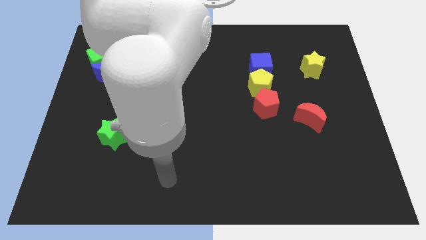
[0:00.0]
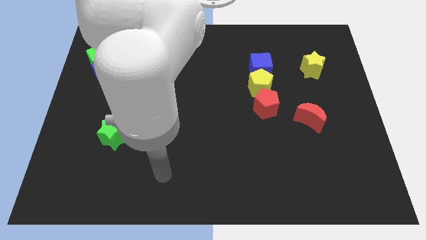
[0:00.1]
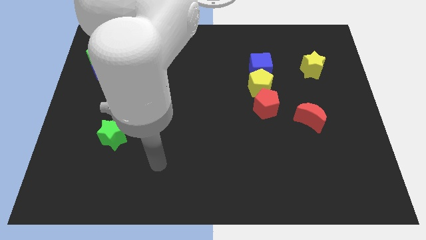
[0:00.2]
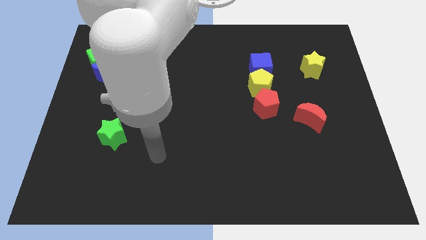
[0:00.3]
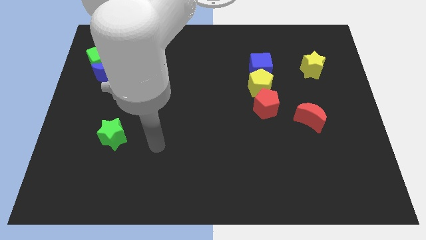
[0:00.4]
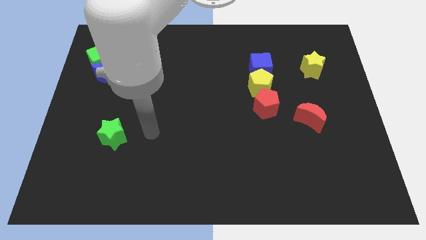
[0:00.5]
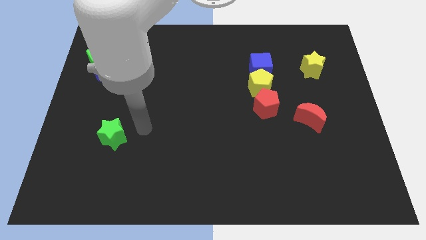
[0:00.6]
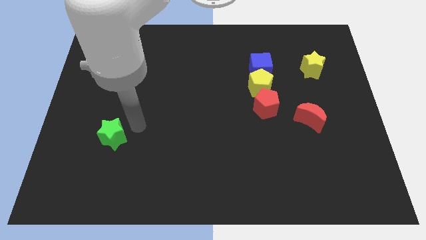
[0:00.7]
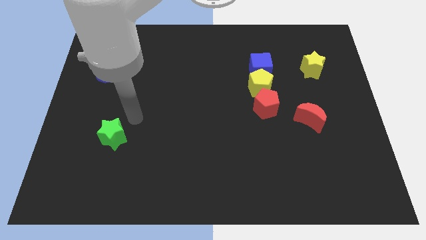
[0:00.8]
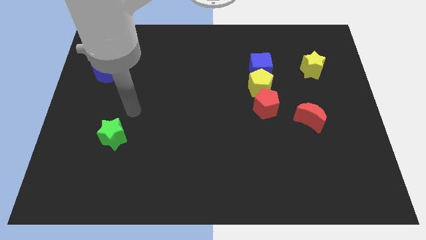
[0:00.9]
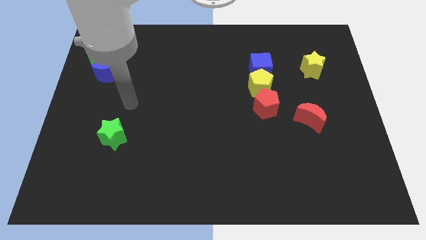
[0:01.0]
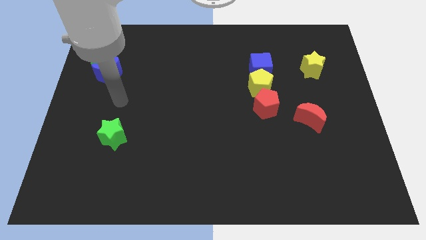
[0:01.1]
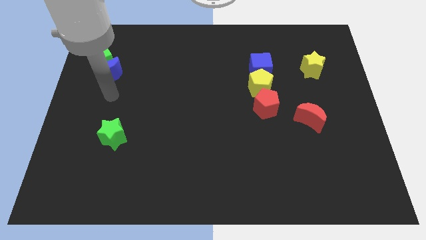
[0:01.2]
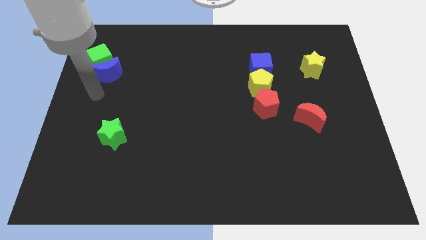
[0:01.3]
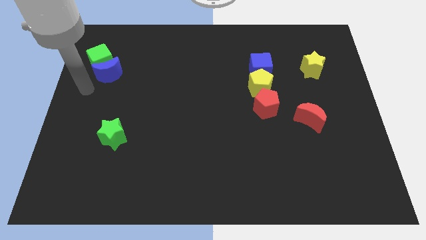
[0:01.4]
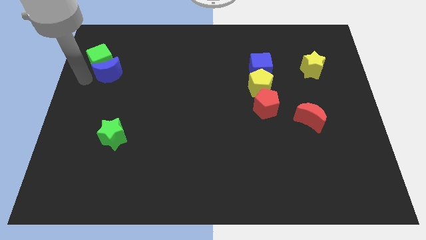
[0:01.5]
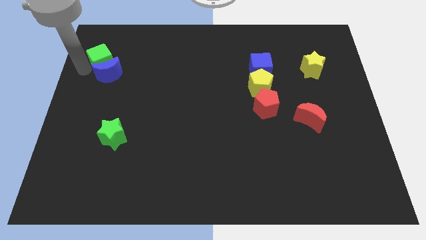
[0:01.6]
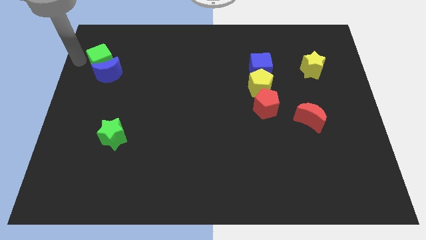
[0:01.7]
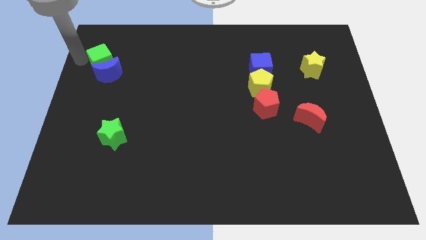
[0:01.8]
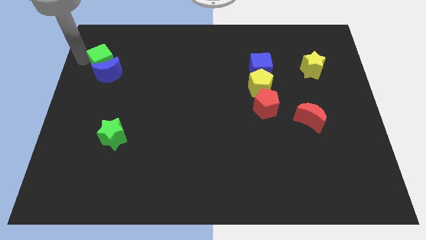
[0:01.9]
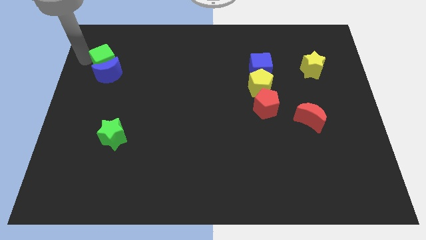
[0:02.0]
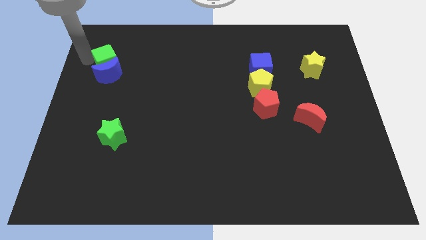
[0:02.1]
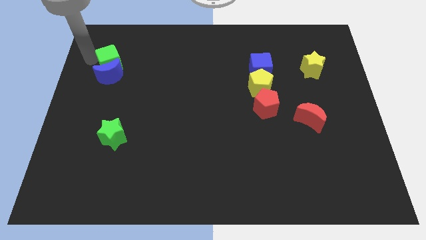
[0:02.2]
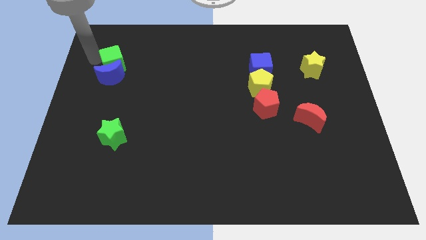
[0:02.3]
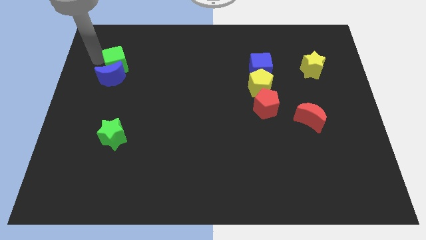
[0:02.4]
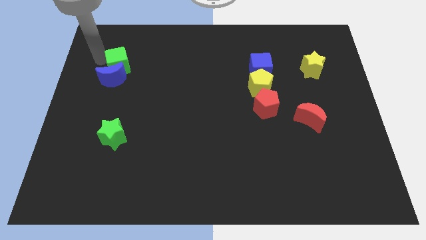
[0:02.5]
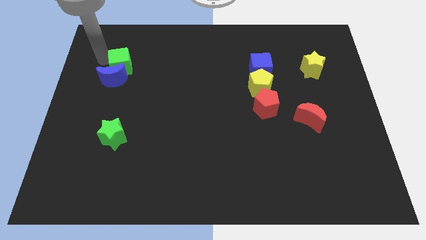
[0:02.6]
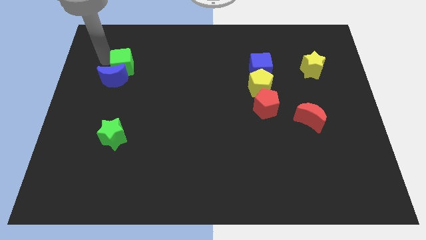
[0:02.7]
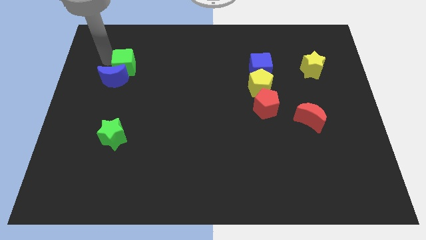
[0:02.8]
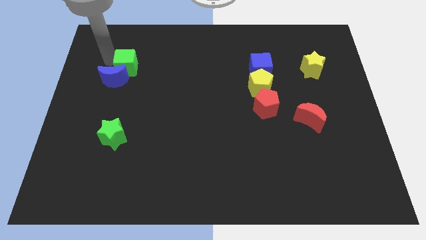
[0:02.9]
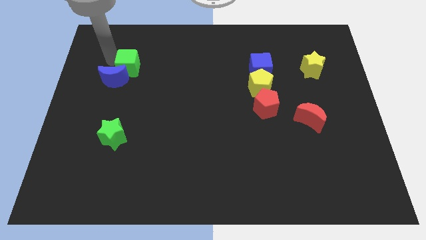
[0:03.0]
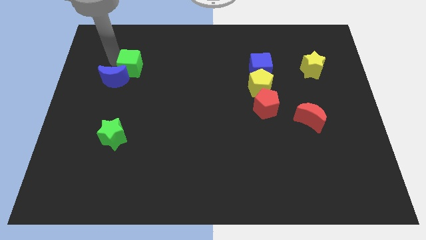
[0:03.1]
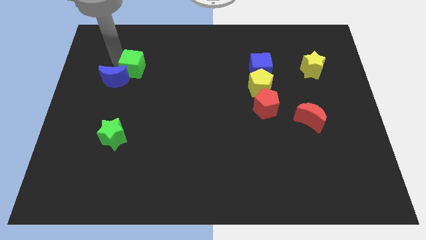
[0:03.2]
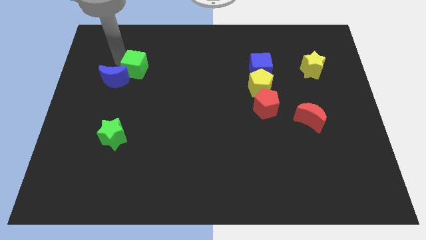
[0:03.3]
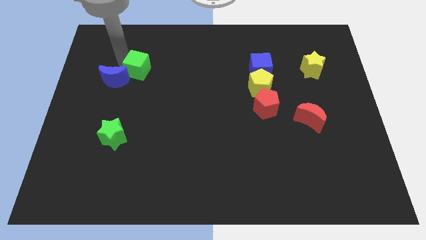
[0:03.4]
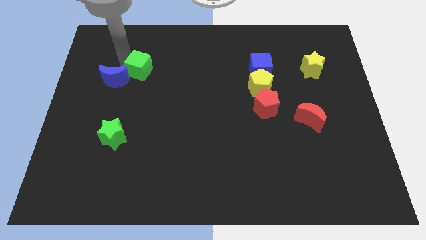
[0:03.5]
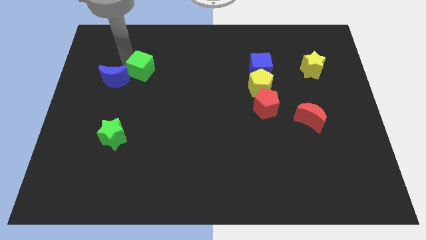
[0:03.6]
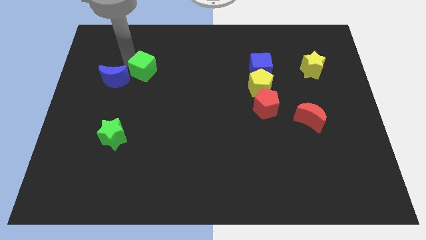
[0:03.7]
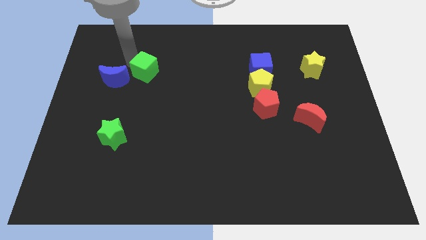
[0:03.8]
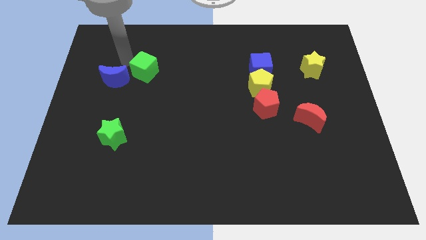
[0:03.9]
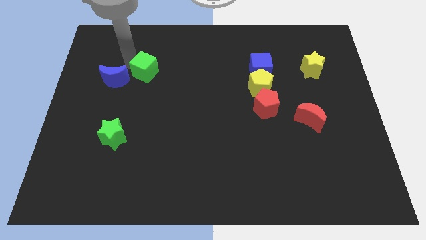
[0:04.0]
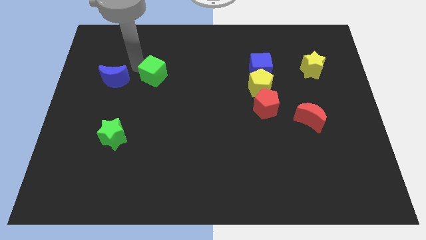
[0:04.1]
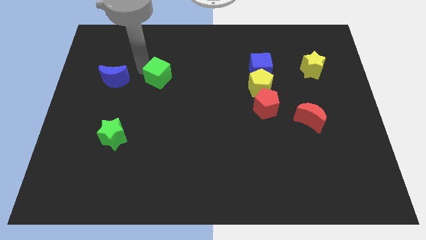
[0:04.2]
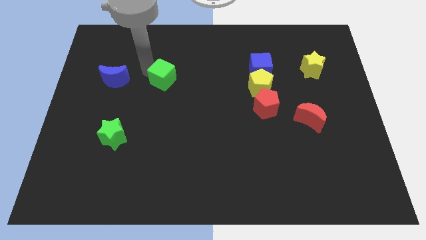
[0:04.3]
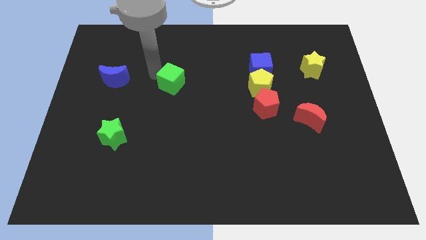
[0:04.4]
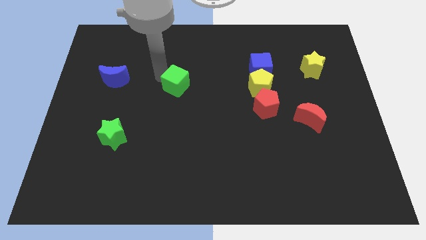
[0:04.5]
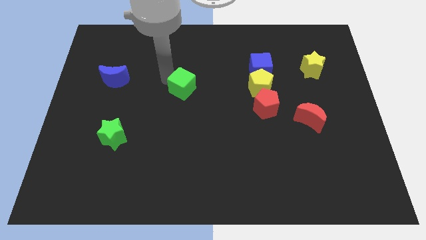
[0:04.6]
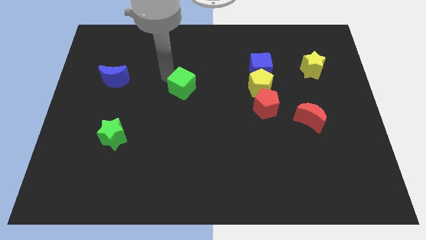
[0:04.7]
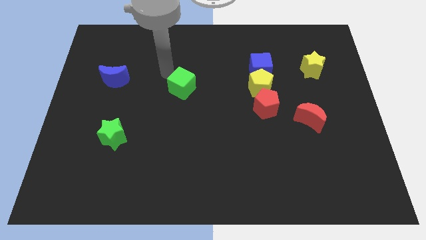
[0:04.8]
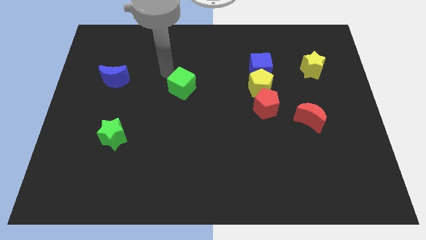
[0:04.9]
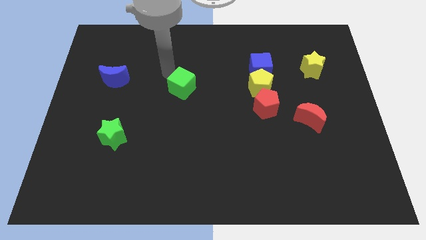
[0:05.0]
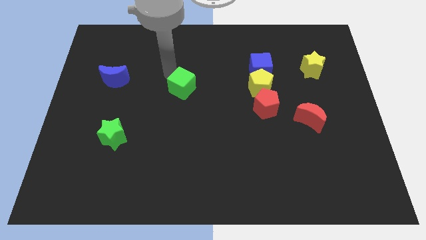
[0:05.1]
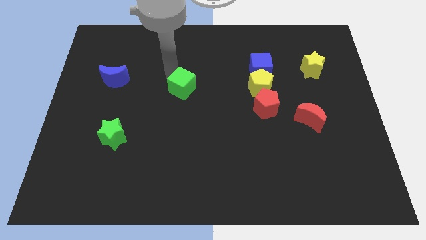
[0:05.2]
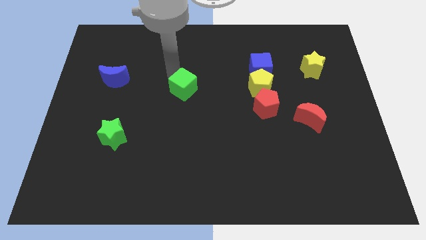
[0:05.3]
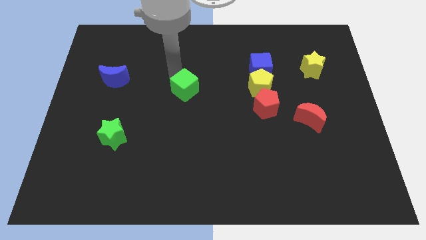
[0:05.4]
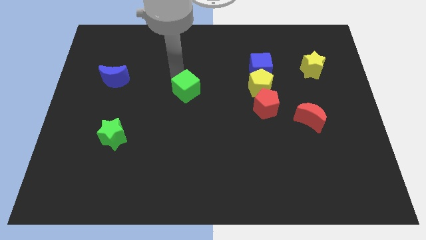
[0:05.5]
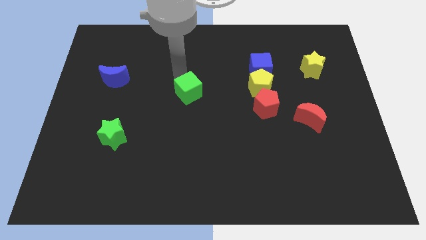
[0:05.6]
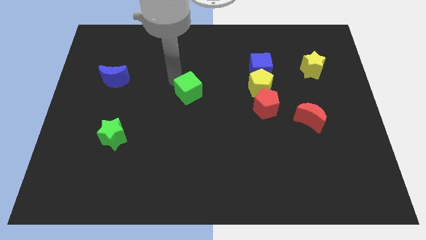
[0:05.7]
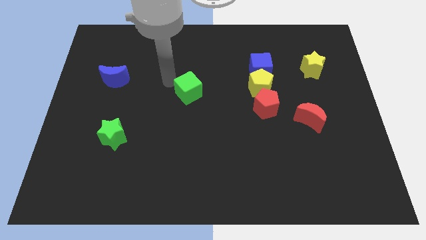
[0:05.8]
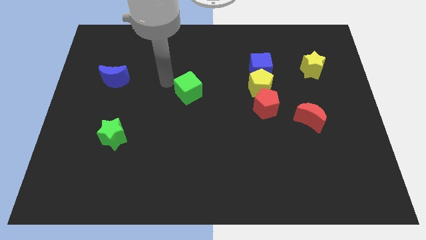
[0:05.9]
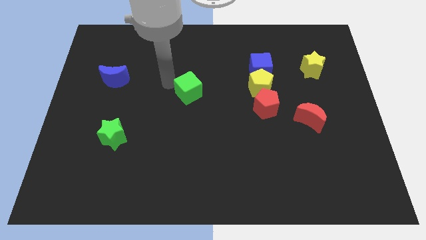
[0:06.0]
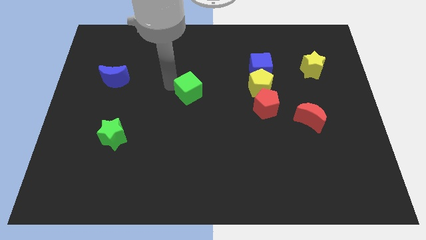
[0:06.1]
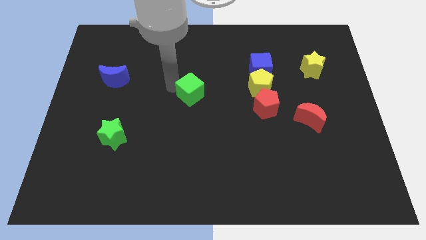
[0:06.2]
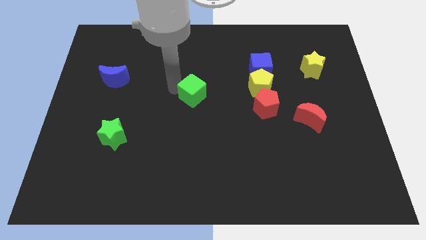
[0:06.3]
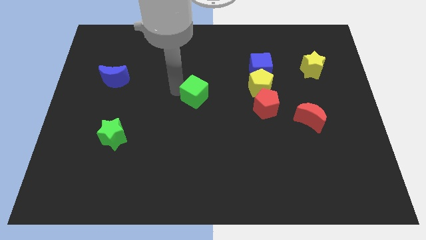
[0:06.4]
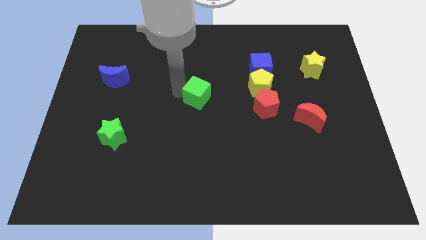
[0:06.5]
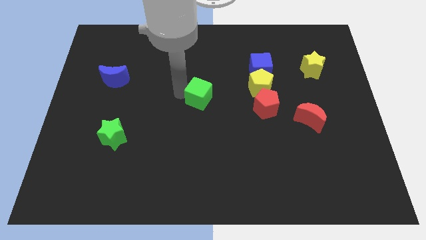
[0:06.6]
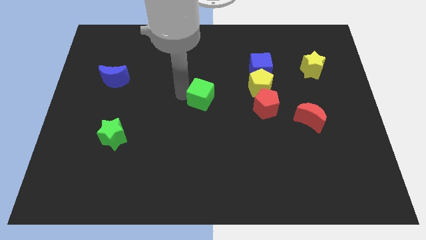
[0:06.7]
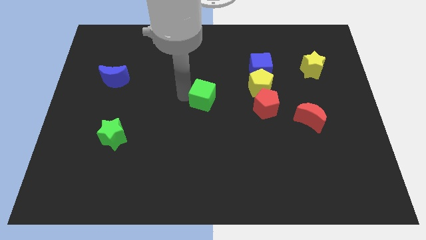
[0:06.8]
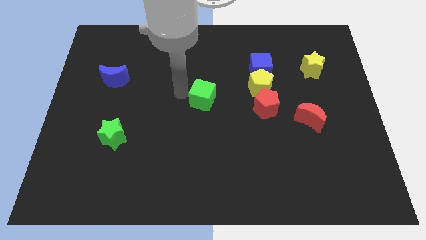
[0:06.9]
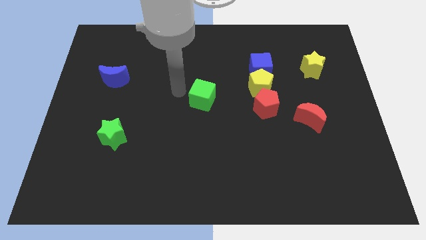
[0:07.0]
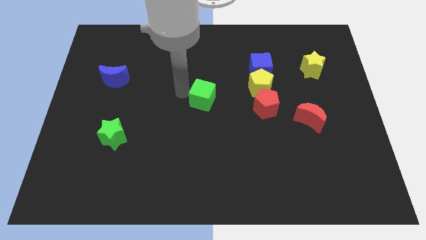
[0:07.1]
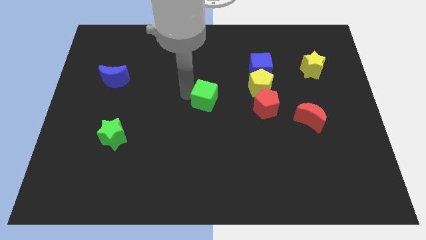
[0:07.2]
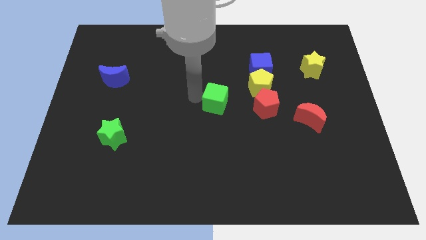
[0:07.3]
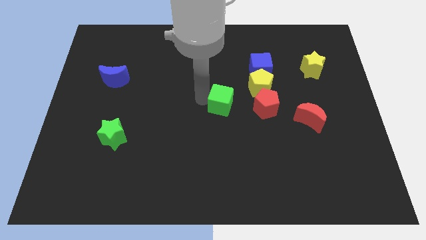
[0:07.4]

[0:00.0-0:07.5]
push the green cube to the bottom left of the yellow pentagon
